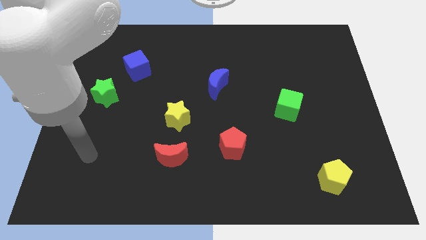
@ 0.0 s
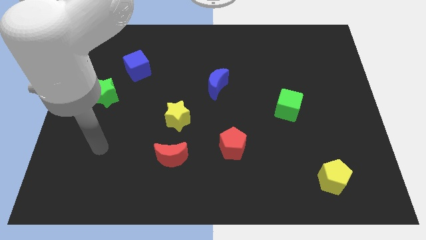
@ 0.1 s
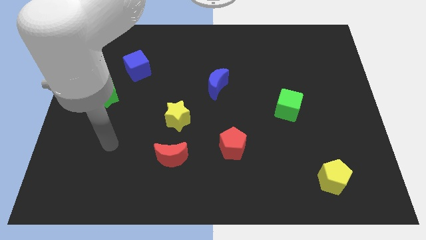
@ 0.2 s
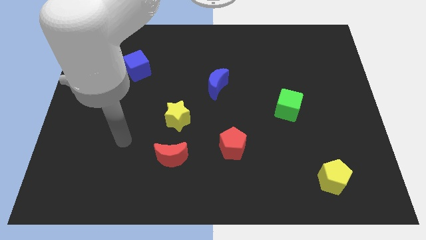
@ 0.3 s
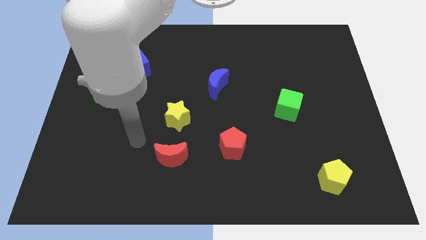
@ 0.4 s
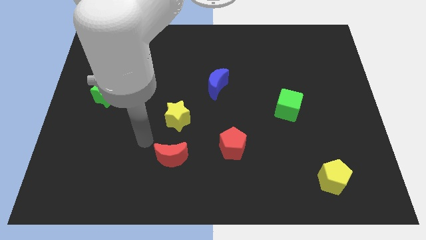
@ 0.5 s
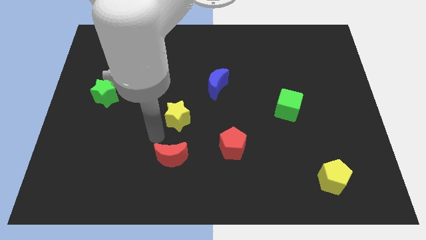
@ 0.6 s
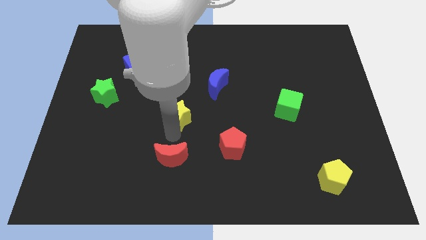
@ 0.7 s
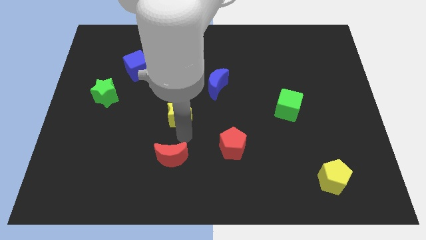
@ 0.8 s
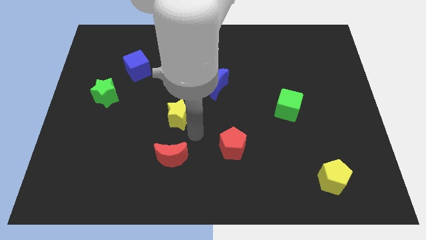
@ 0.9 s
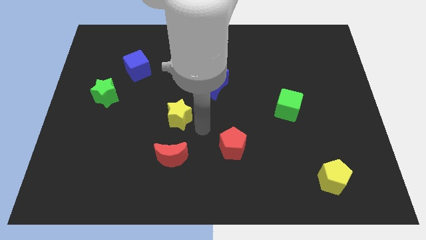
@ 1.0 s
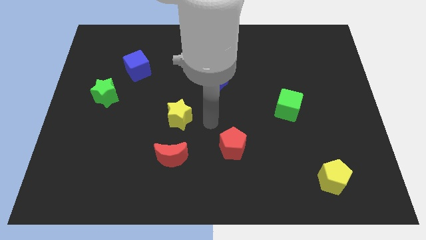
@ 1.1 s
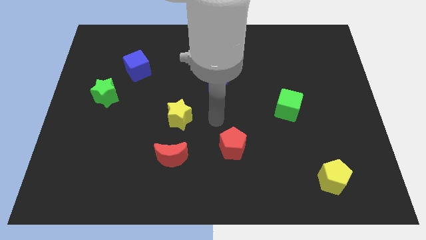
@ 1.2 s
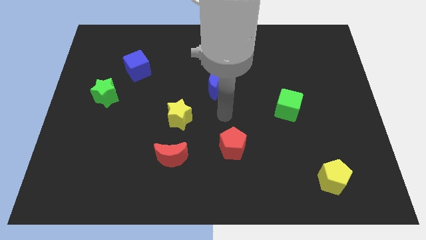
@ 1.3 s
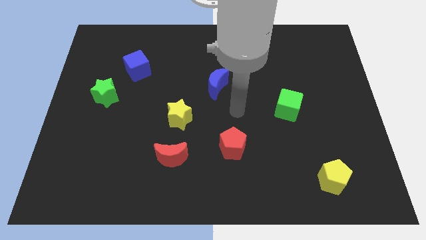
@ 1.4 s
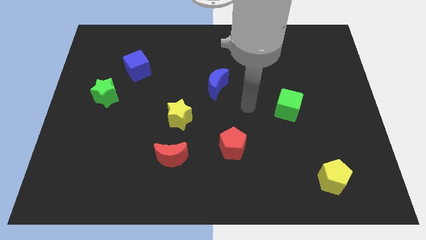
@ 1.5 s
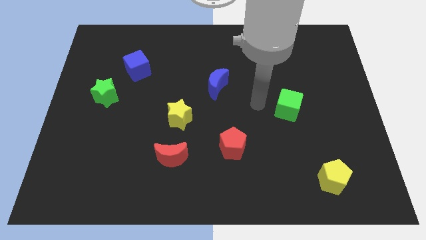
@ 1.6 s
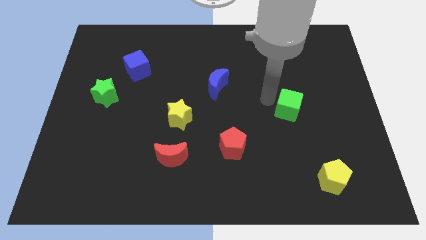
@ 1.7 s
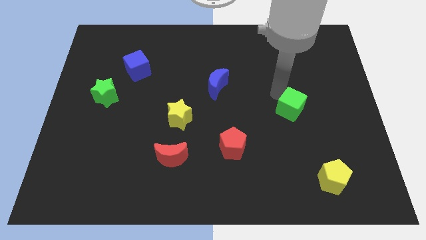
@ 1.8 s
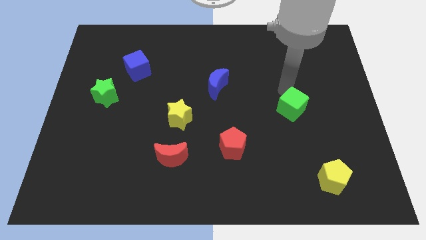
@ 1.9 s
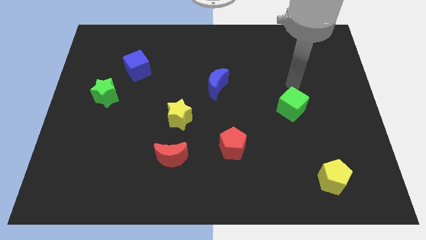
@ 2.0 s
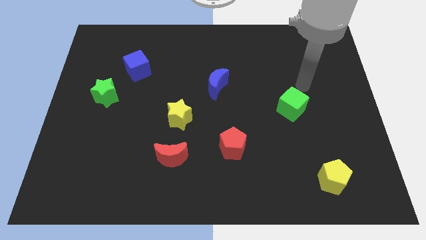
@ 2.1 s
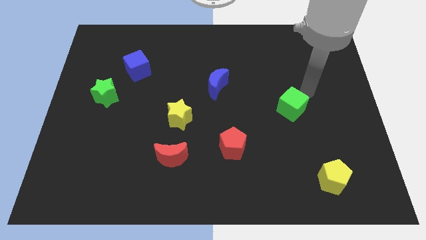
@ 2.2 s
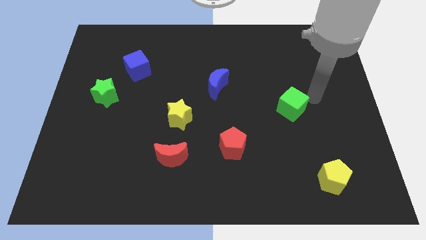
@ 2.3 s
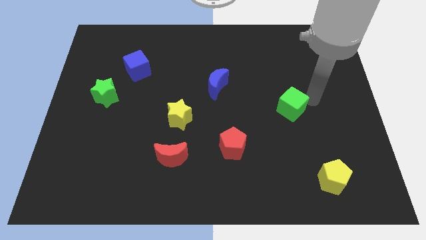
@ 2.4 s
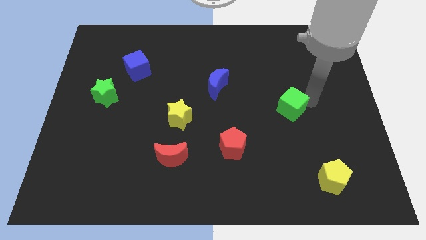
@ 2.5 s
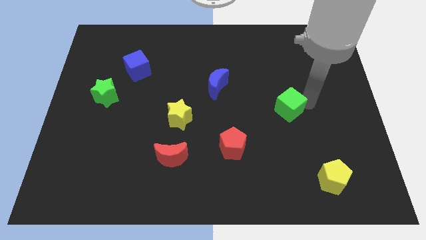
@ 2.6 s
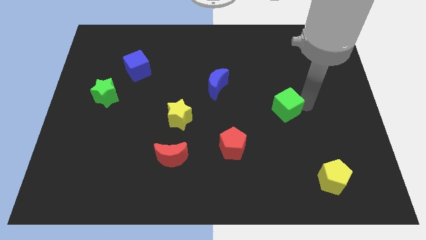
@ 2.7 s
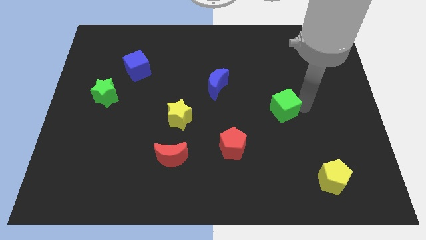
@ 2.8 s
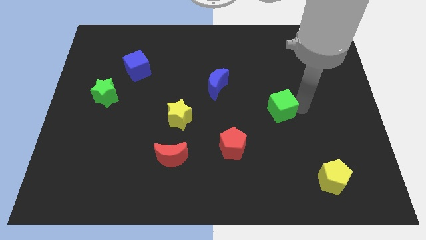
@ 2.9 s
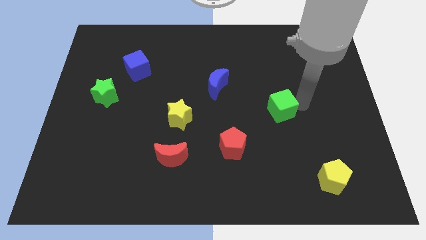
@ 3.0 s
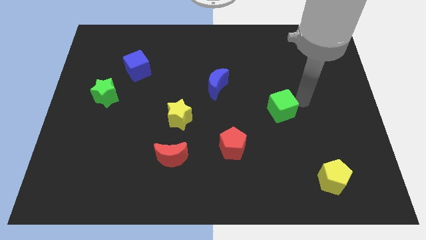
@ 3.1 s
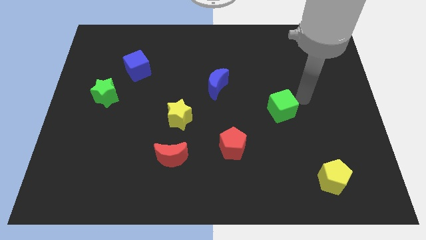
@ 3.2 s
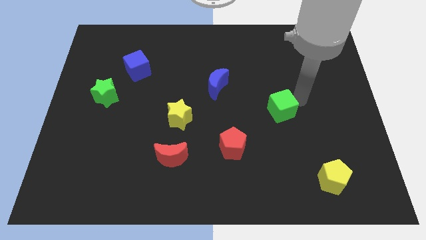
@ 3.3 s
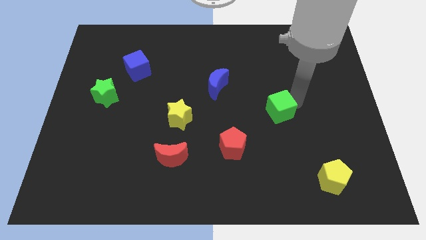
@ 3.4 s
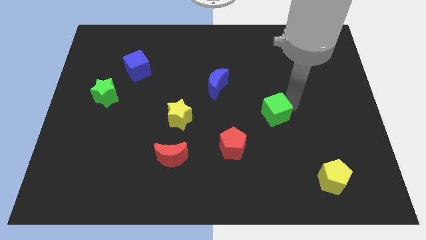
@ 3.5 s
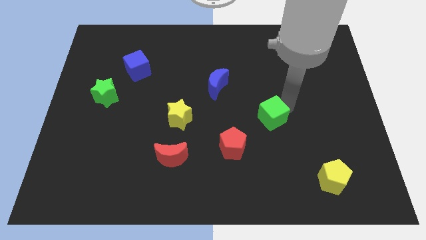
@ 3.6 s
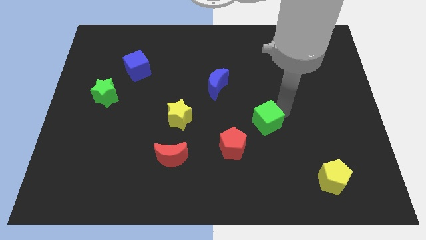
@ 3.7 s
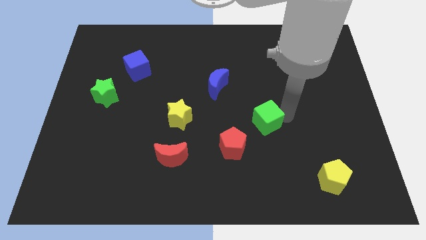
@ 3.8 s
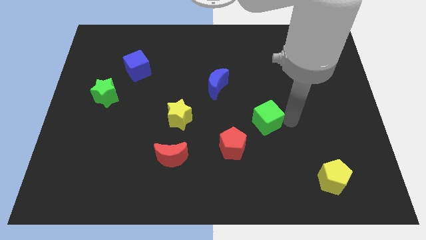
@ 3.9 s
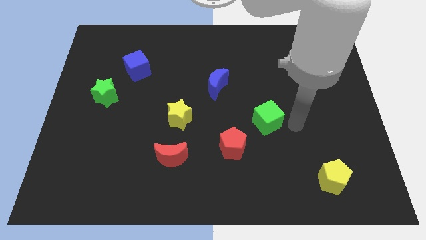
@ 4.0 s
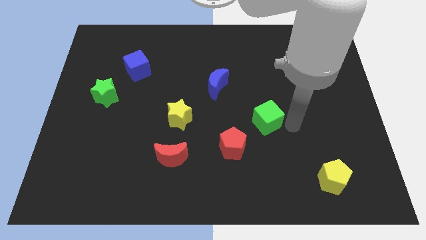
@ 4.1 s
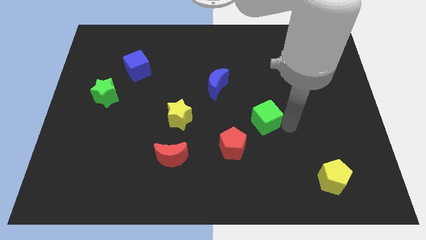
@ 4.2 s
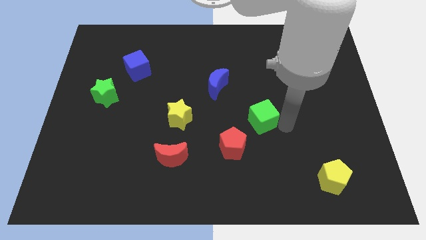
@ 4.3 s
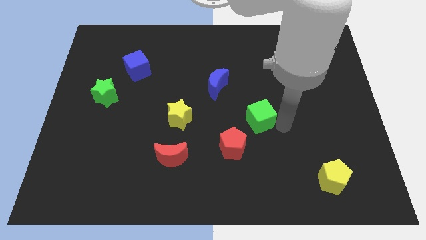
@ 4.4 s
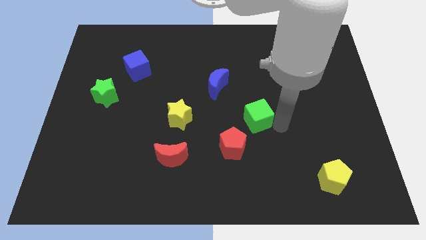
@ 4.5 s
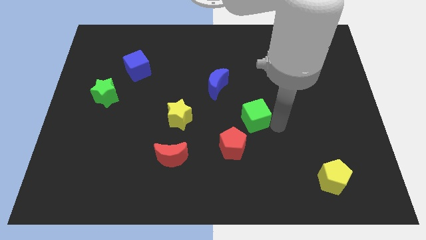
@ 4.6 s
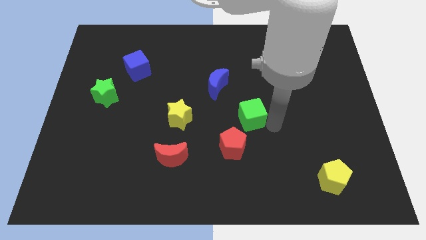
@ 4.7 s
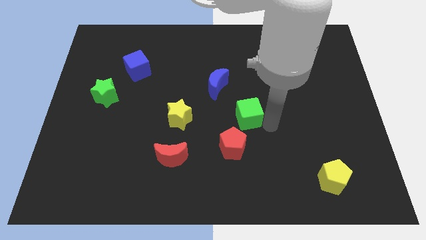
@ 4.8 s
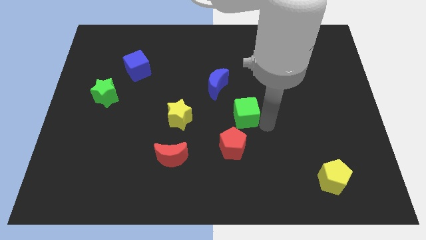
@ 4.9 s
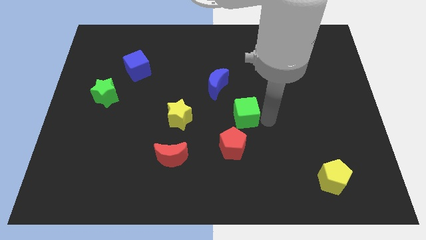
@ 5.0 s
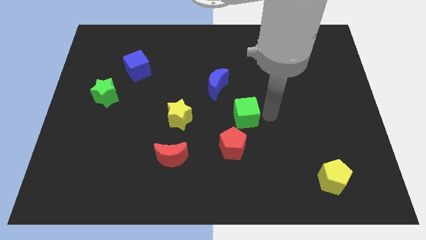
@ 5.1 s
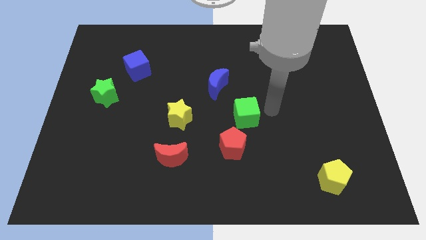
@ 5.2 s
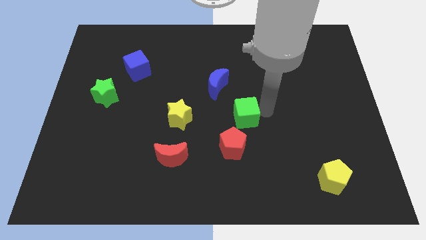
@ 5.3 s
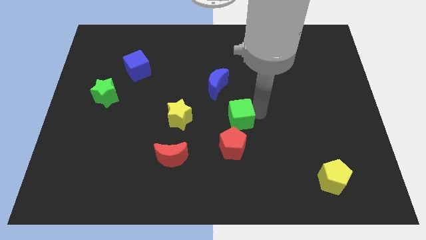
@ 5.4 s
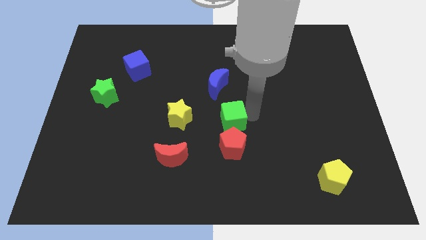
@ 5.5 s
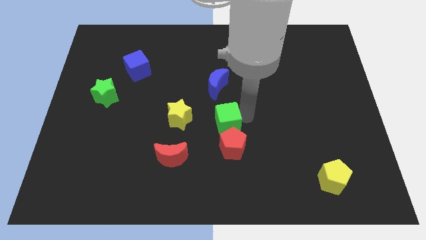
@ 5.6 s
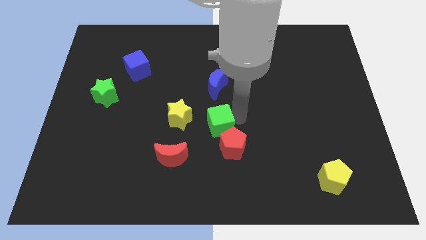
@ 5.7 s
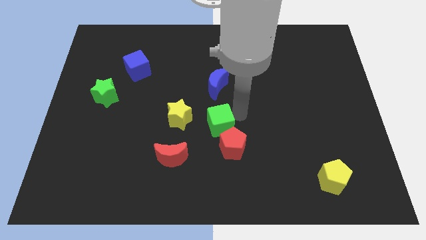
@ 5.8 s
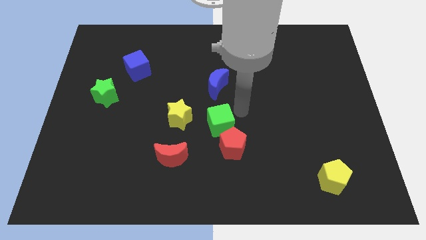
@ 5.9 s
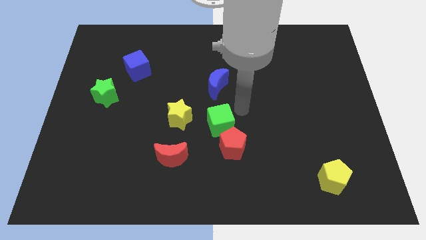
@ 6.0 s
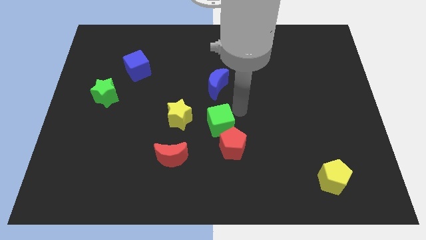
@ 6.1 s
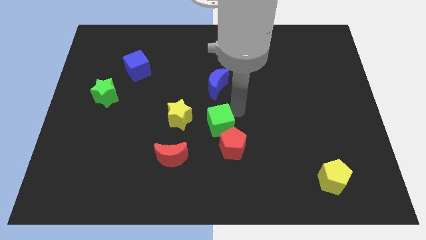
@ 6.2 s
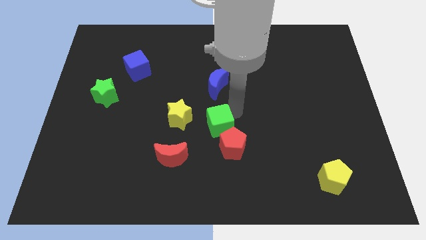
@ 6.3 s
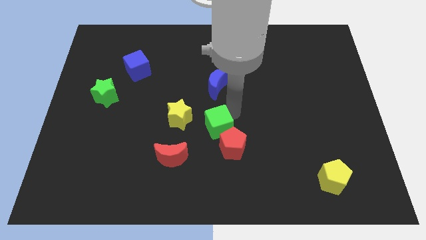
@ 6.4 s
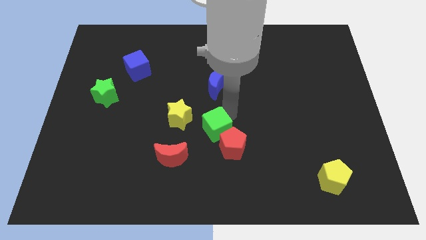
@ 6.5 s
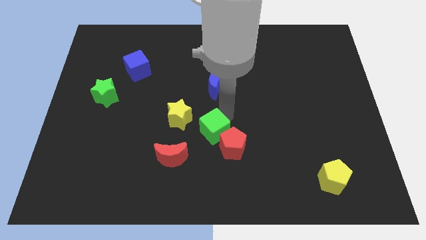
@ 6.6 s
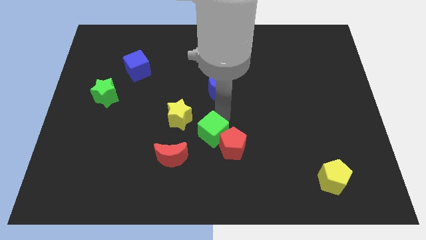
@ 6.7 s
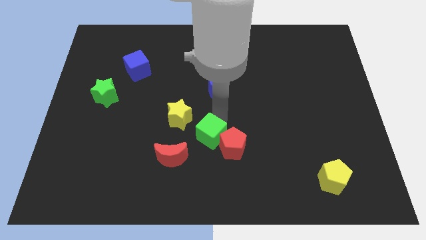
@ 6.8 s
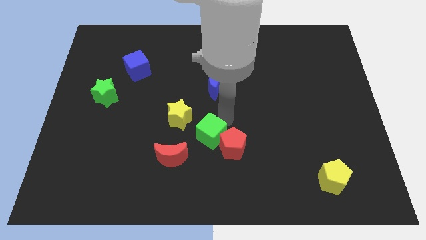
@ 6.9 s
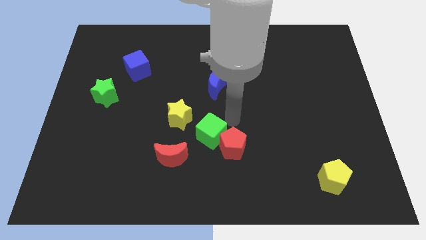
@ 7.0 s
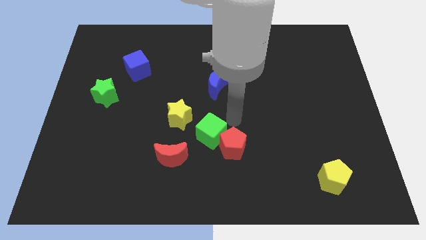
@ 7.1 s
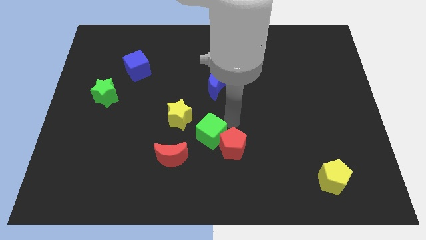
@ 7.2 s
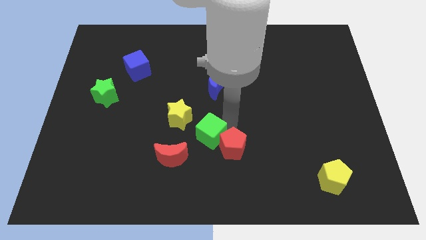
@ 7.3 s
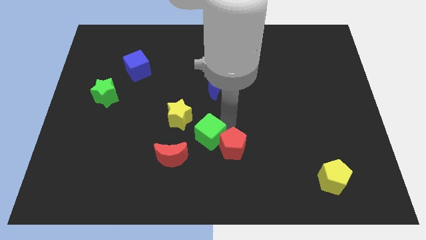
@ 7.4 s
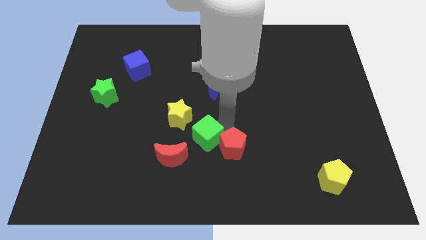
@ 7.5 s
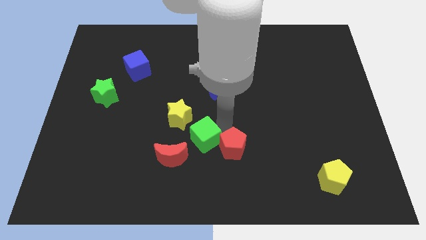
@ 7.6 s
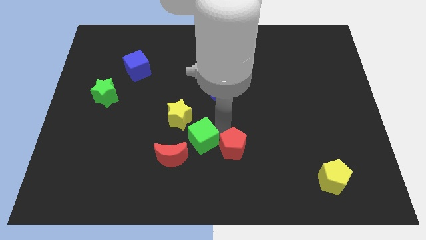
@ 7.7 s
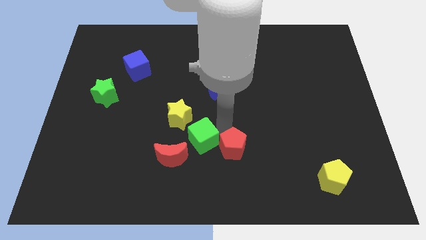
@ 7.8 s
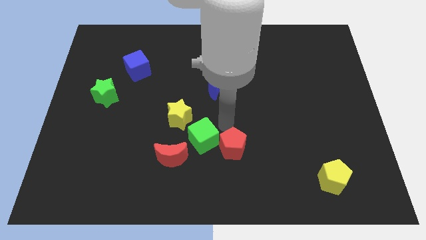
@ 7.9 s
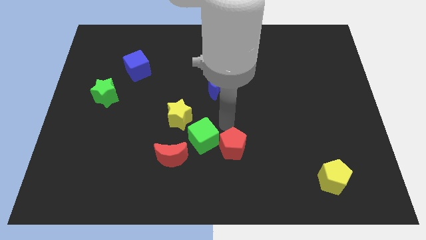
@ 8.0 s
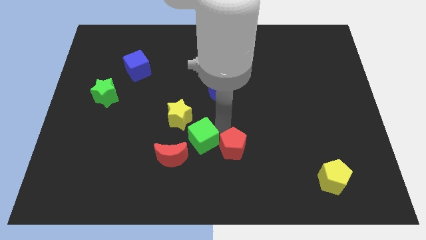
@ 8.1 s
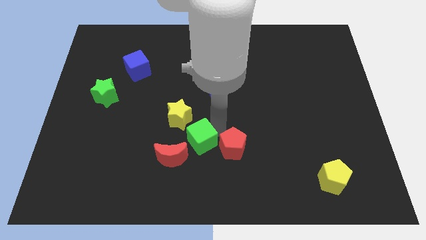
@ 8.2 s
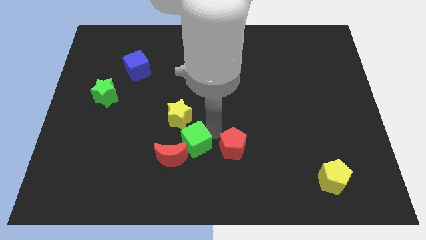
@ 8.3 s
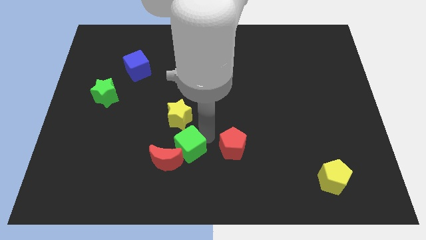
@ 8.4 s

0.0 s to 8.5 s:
move the green cube towards the red moon
